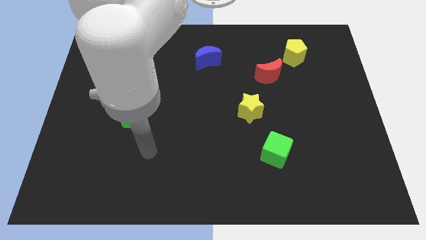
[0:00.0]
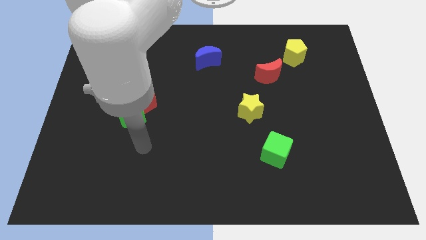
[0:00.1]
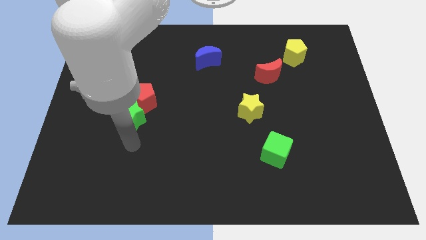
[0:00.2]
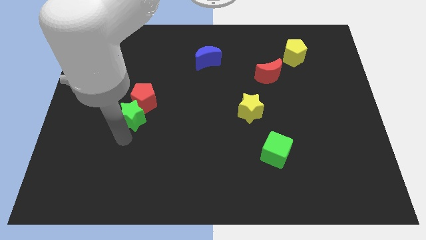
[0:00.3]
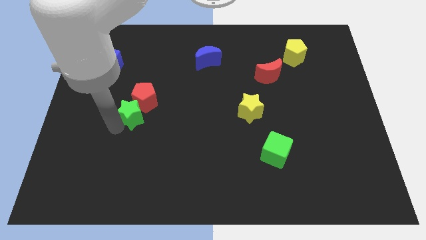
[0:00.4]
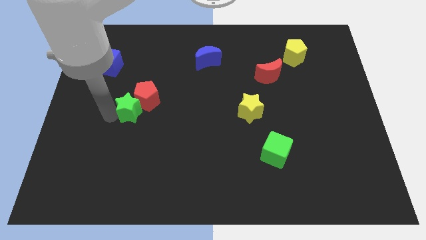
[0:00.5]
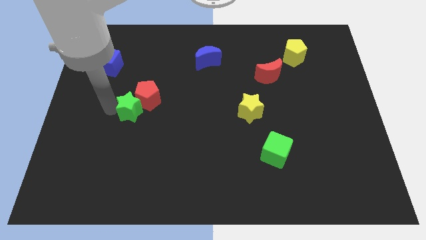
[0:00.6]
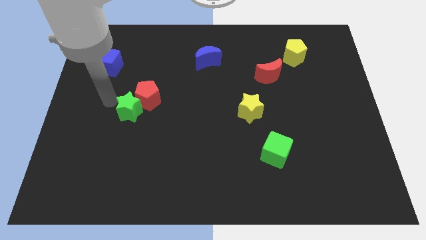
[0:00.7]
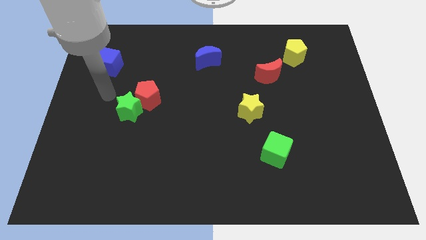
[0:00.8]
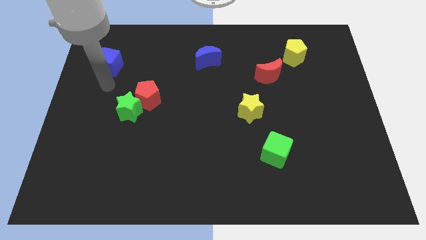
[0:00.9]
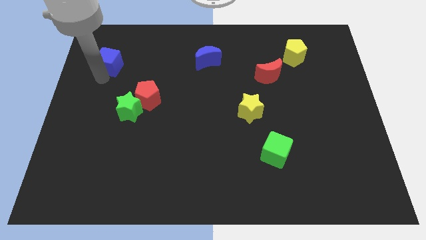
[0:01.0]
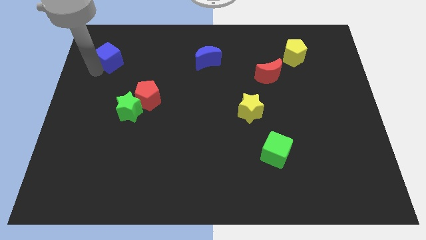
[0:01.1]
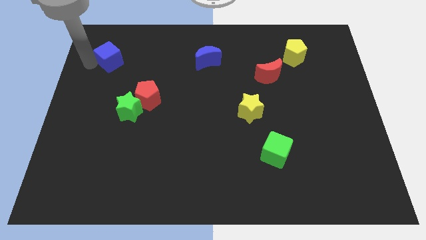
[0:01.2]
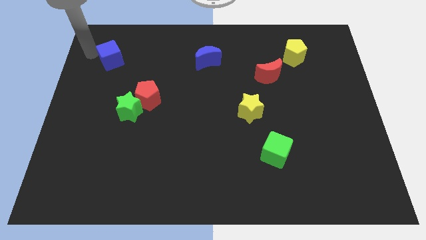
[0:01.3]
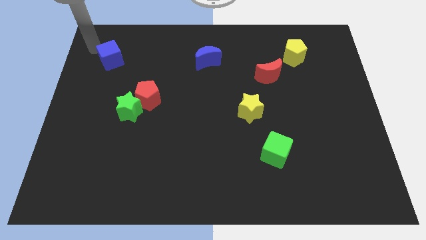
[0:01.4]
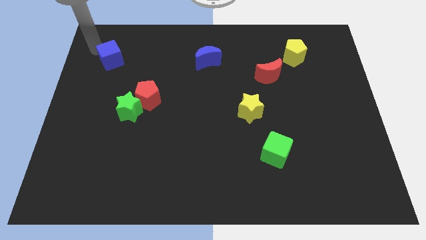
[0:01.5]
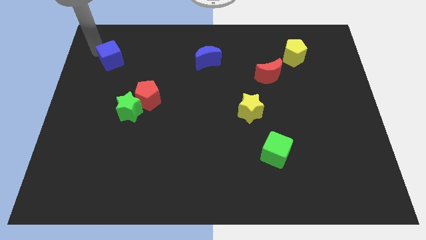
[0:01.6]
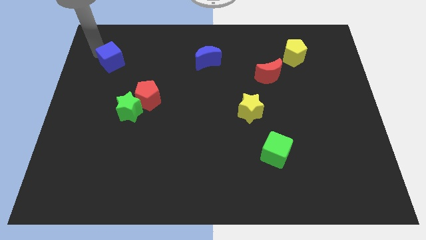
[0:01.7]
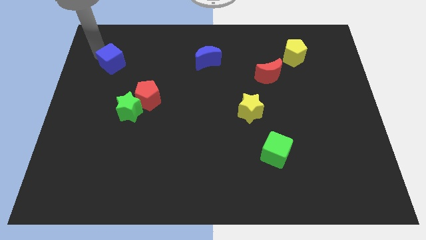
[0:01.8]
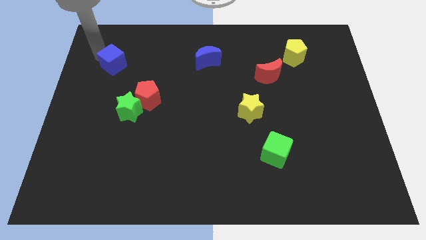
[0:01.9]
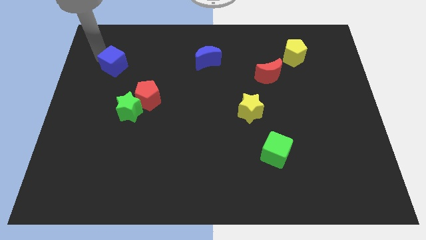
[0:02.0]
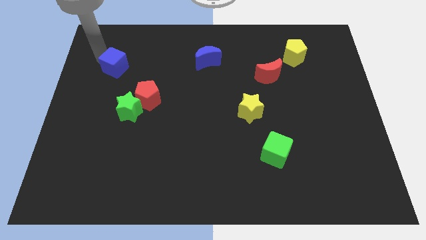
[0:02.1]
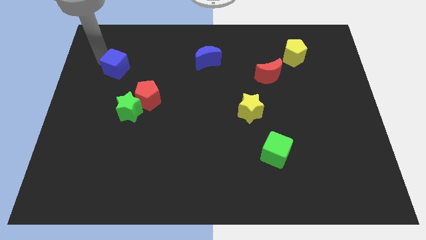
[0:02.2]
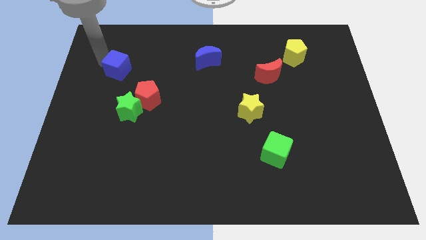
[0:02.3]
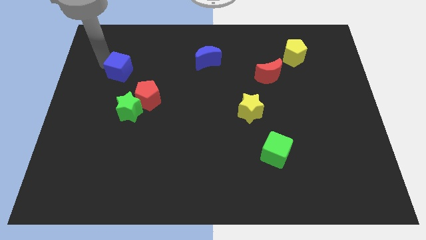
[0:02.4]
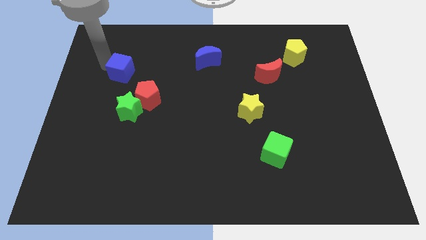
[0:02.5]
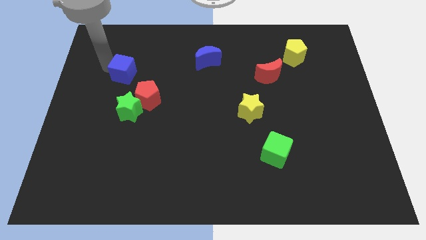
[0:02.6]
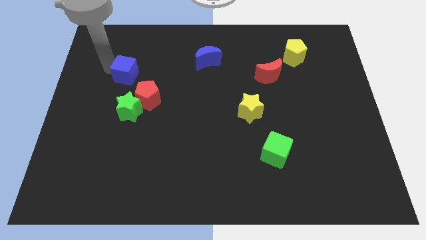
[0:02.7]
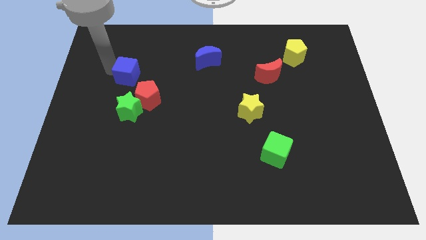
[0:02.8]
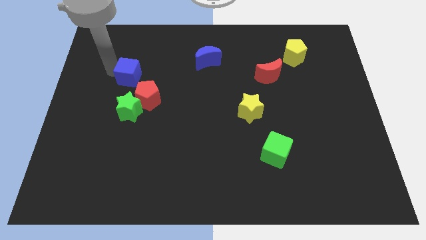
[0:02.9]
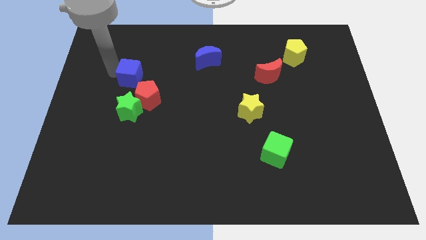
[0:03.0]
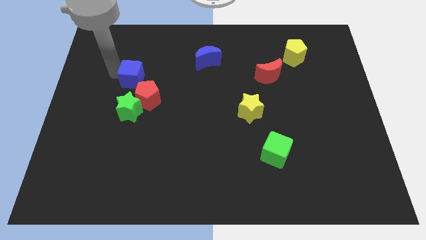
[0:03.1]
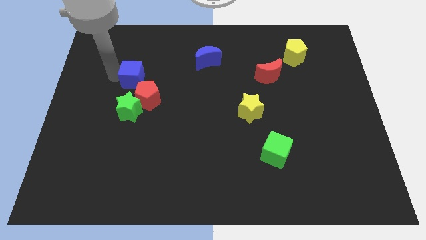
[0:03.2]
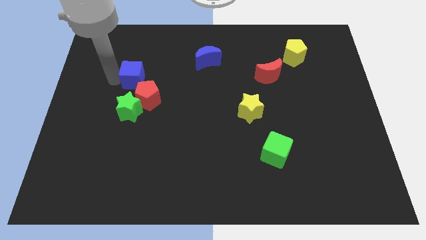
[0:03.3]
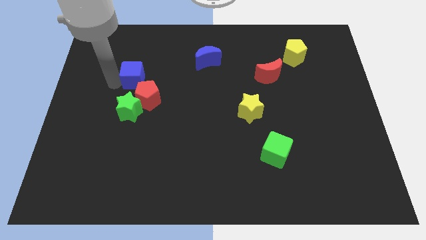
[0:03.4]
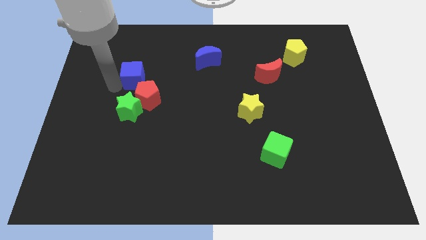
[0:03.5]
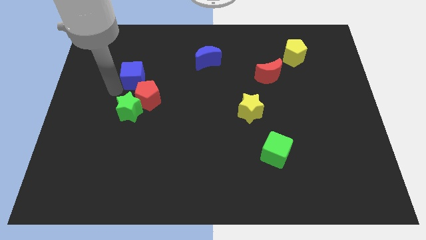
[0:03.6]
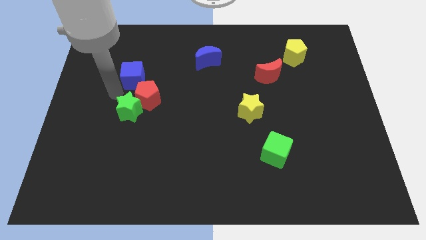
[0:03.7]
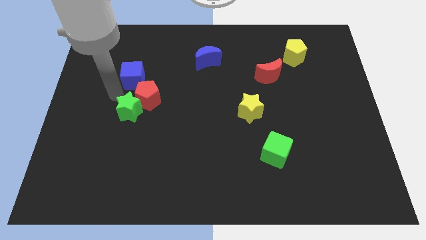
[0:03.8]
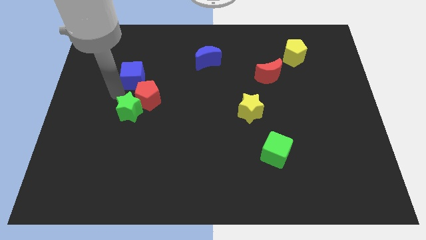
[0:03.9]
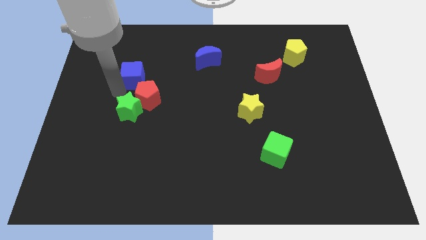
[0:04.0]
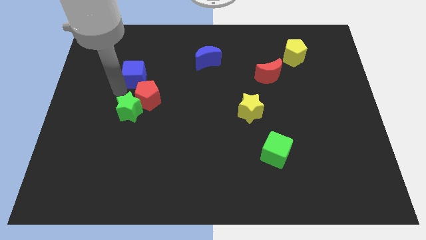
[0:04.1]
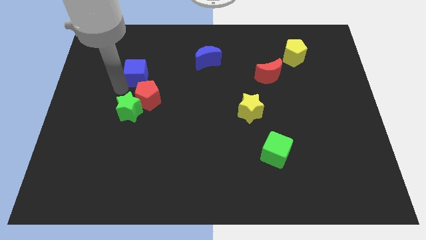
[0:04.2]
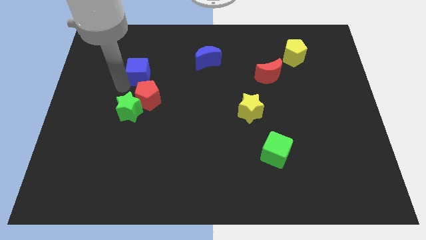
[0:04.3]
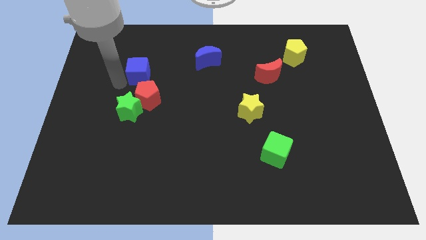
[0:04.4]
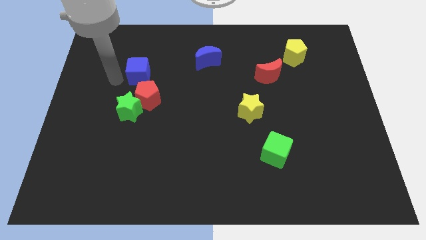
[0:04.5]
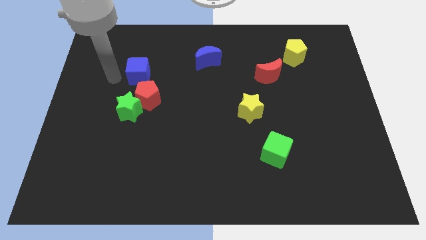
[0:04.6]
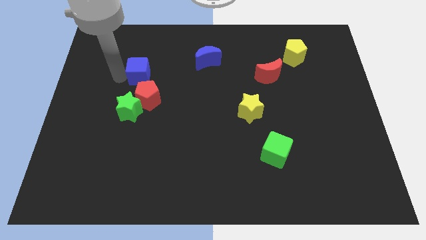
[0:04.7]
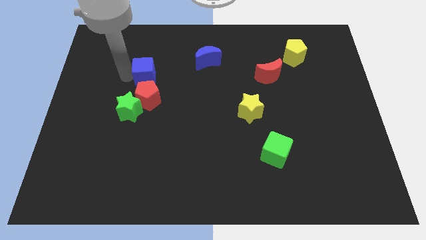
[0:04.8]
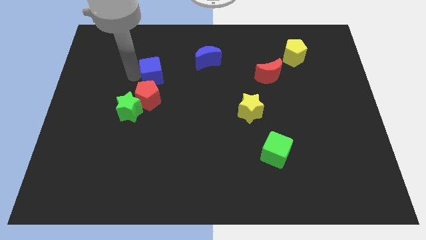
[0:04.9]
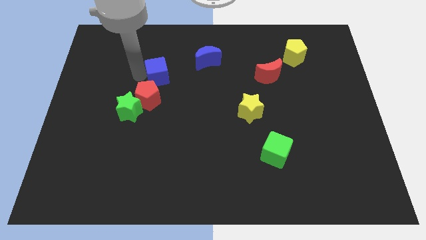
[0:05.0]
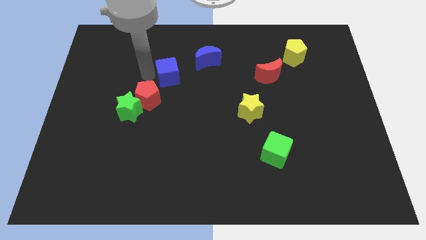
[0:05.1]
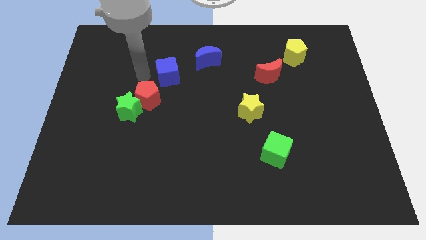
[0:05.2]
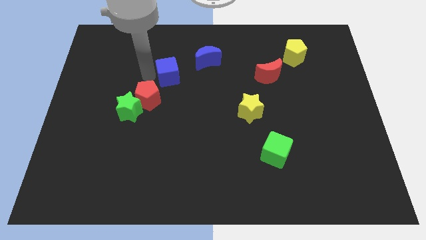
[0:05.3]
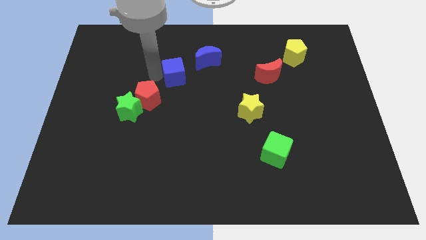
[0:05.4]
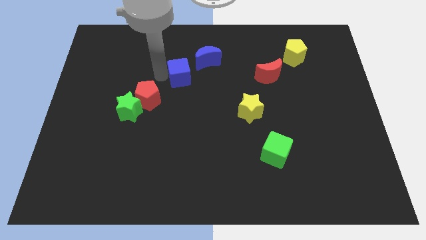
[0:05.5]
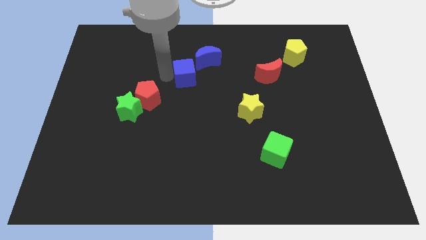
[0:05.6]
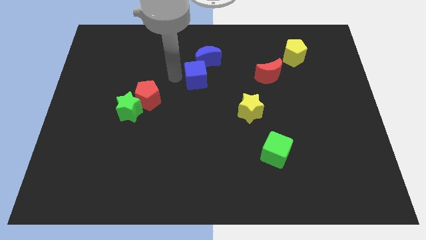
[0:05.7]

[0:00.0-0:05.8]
slide the blue cube to the right

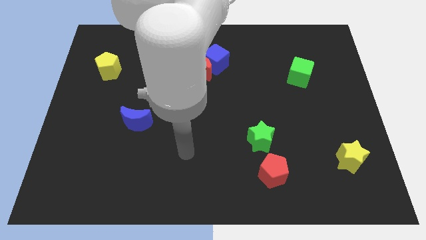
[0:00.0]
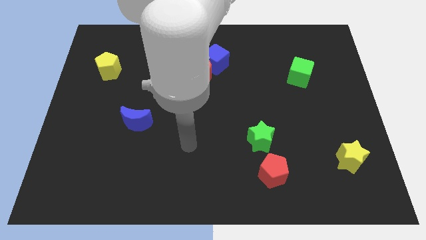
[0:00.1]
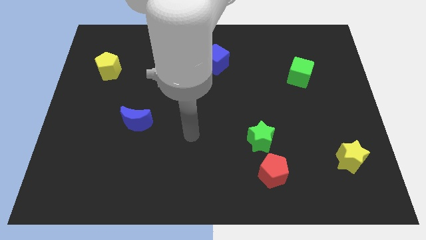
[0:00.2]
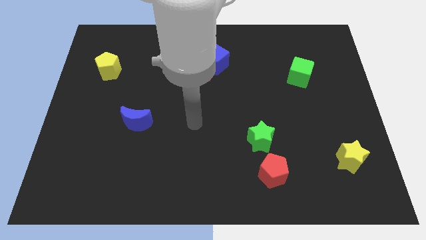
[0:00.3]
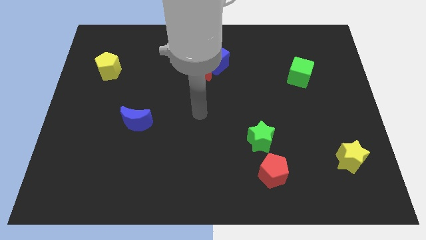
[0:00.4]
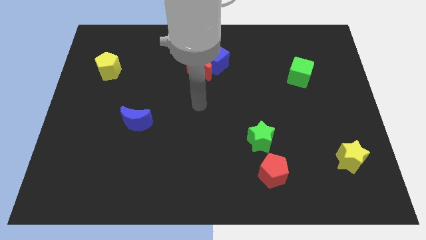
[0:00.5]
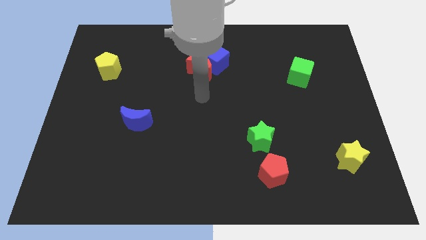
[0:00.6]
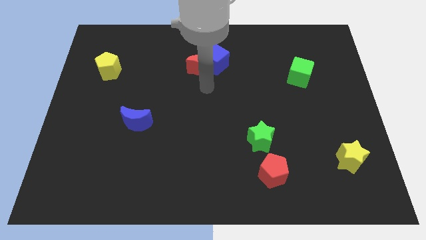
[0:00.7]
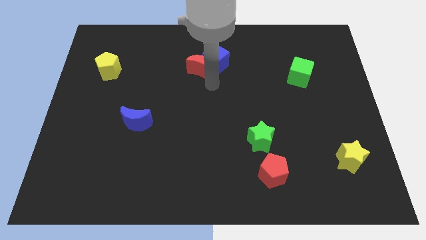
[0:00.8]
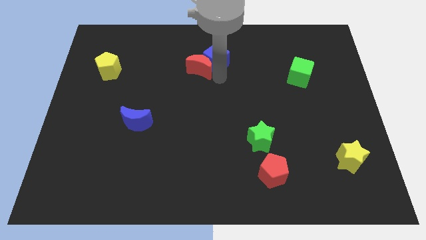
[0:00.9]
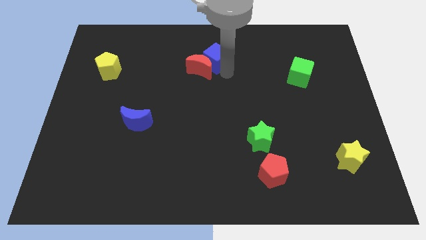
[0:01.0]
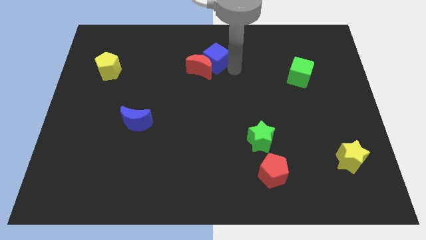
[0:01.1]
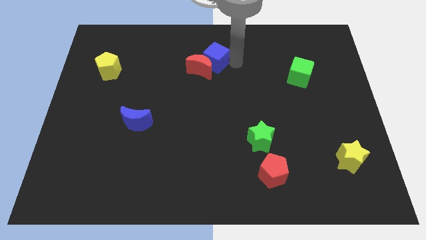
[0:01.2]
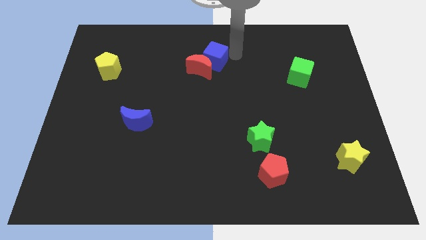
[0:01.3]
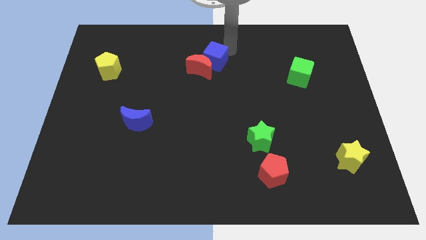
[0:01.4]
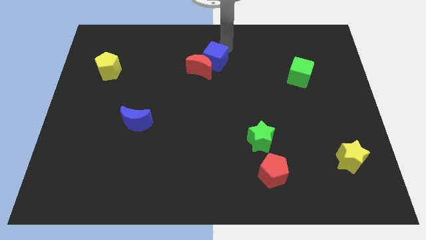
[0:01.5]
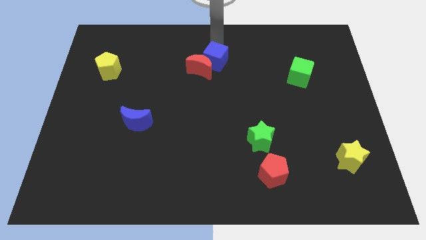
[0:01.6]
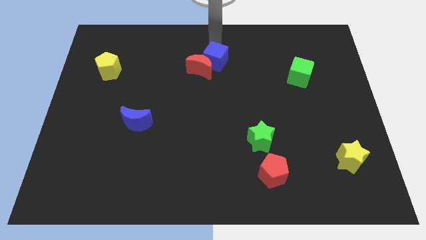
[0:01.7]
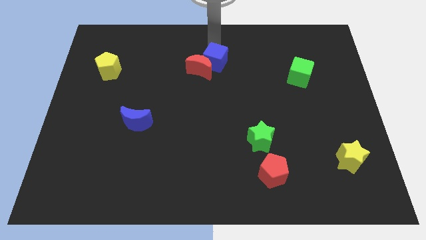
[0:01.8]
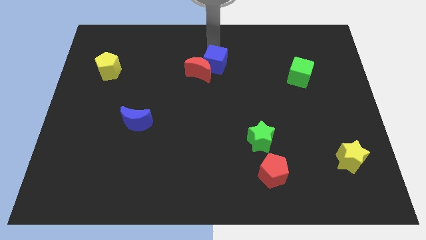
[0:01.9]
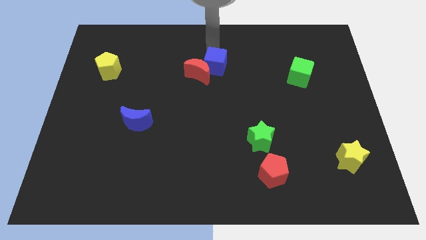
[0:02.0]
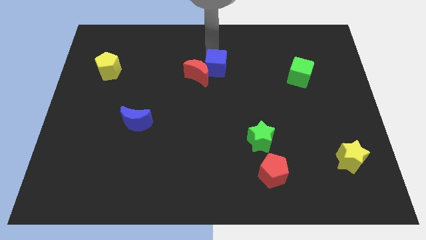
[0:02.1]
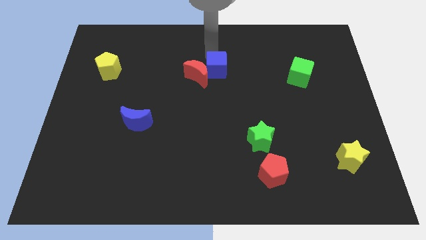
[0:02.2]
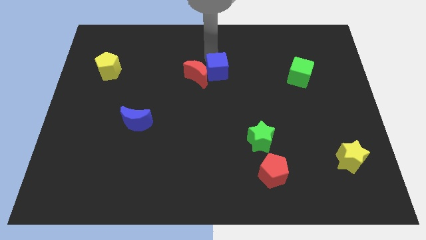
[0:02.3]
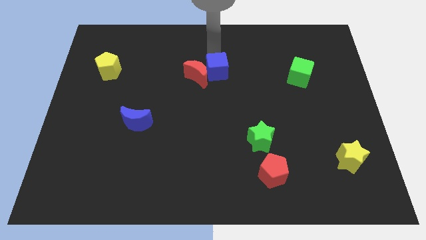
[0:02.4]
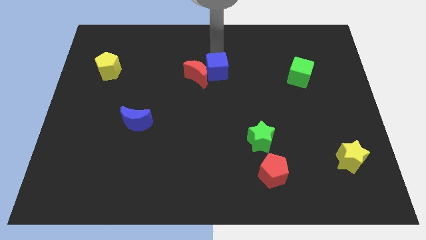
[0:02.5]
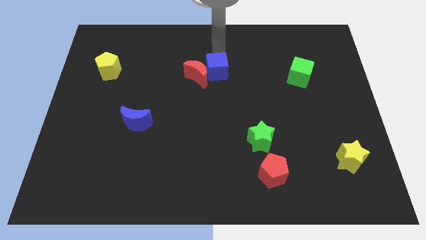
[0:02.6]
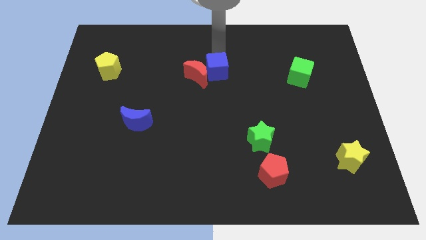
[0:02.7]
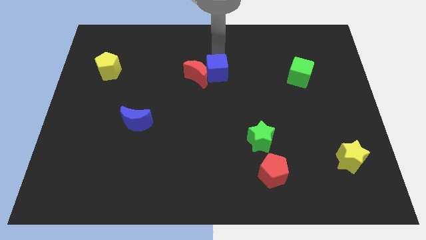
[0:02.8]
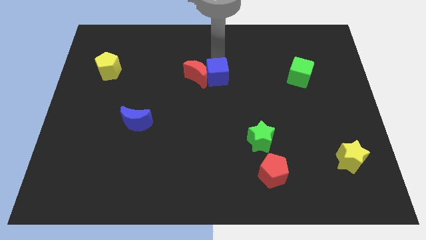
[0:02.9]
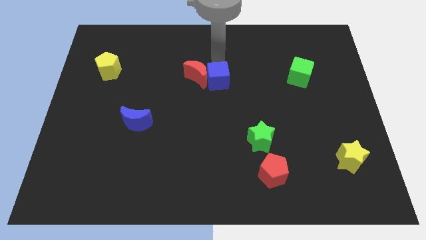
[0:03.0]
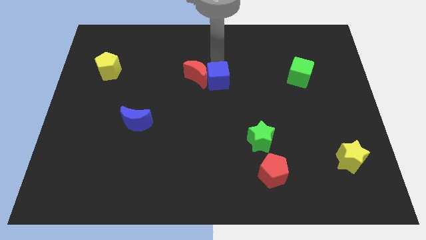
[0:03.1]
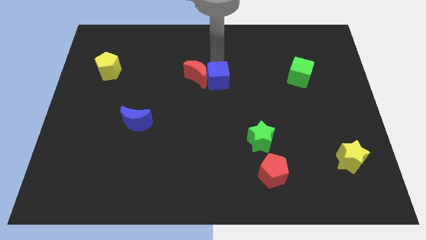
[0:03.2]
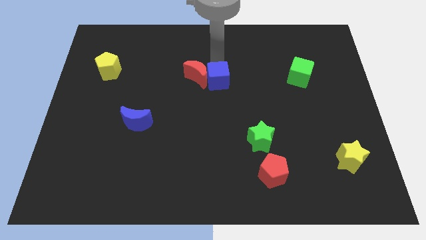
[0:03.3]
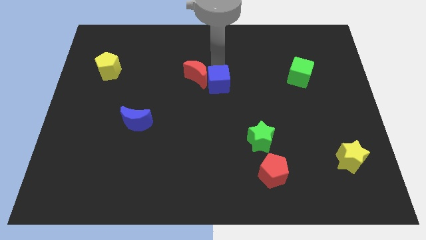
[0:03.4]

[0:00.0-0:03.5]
move the blue cube downwards slightly
